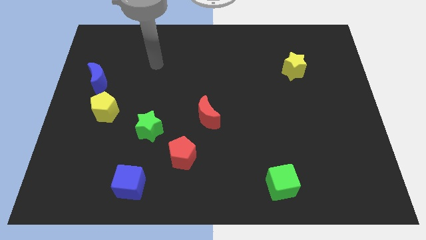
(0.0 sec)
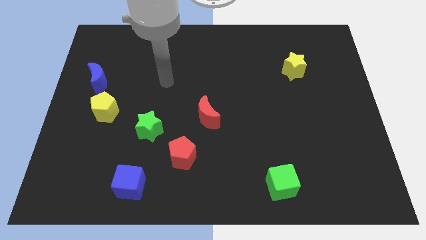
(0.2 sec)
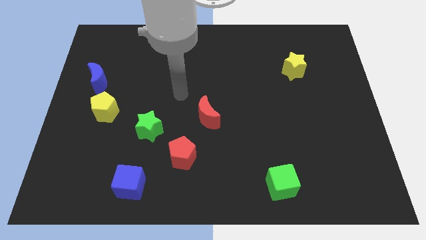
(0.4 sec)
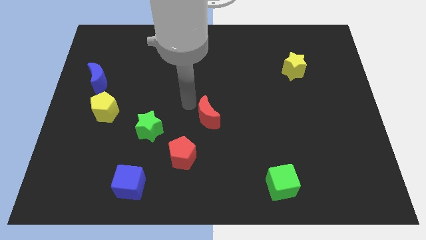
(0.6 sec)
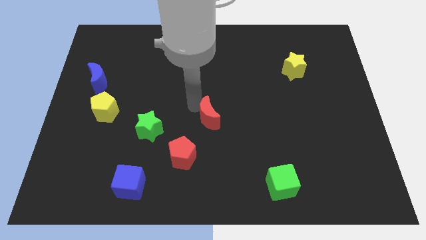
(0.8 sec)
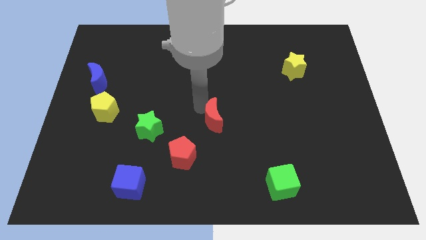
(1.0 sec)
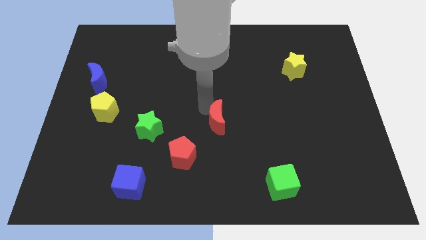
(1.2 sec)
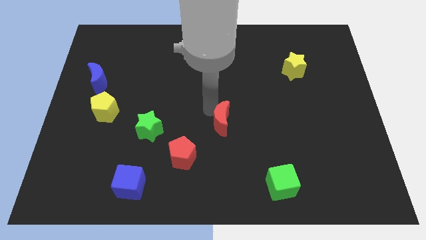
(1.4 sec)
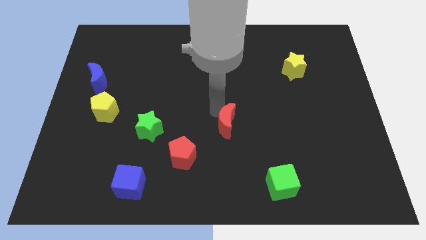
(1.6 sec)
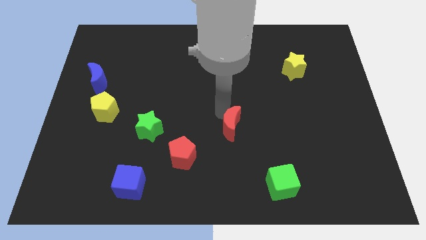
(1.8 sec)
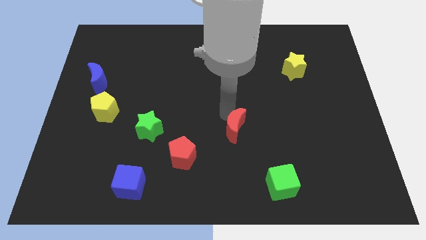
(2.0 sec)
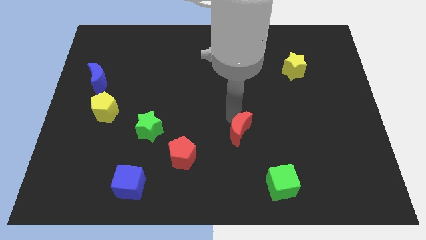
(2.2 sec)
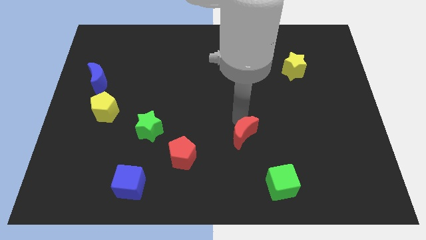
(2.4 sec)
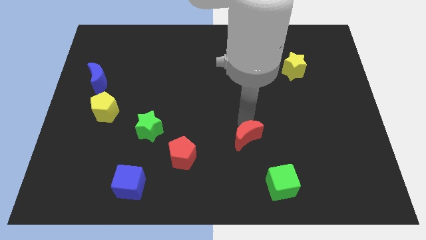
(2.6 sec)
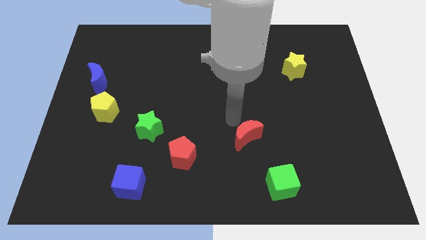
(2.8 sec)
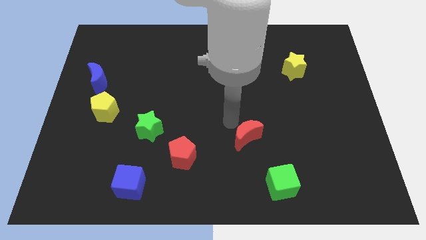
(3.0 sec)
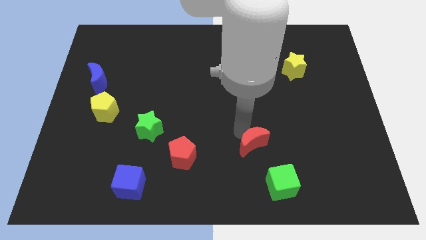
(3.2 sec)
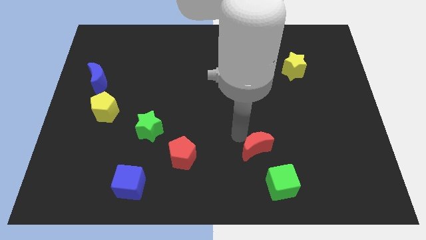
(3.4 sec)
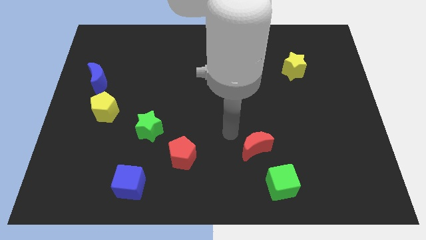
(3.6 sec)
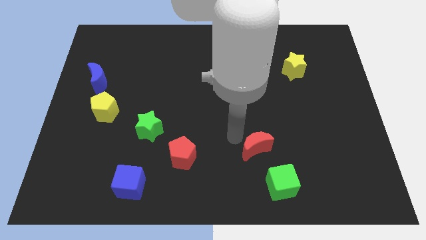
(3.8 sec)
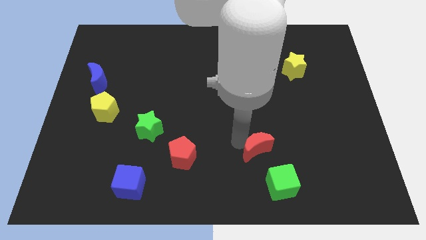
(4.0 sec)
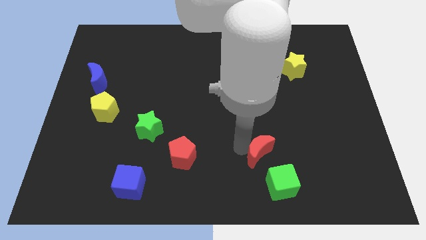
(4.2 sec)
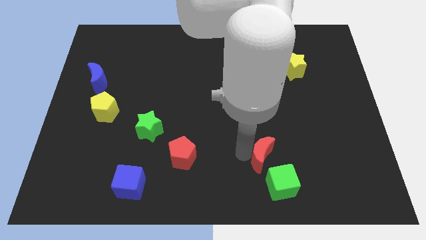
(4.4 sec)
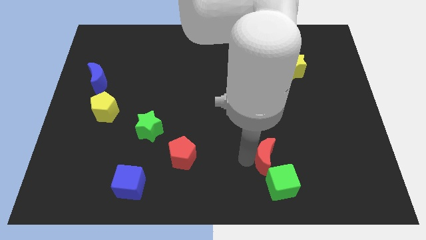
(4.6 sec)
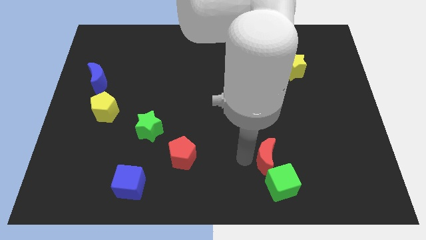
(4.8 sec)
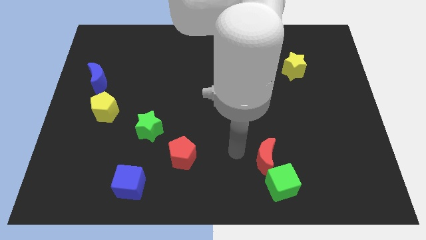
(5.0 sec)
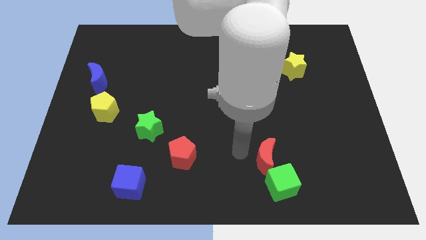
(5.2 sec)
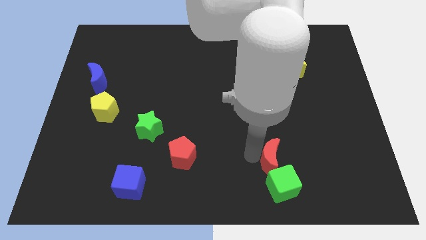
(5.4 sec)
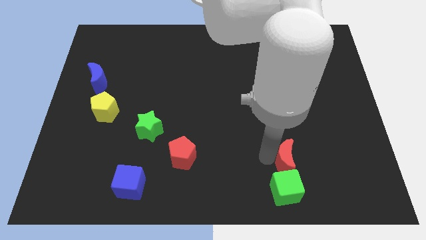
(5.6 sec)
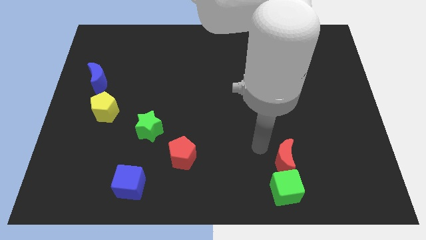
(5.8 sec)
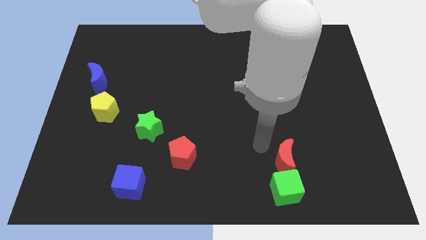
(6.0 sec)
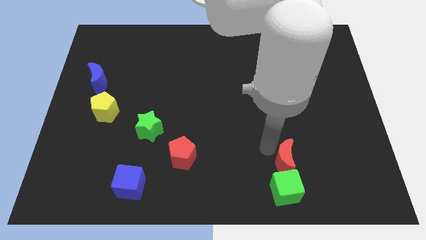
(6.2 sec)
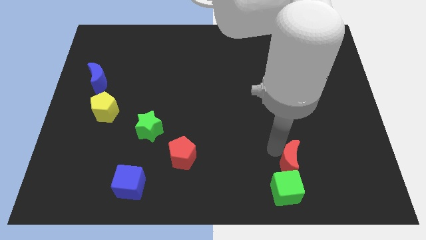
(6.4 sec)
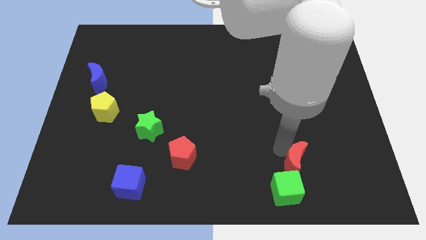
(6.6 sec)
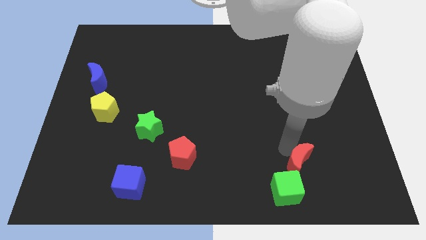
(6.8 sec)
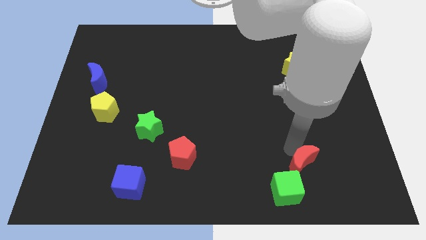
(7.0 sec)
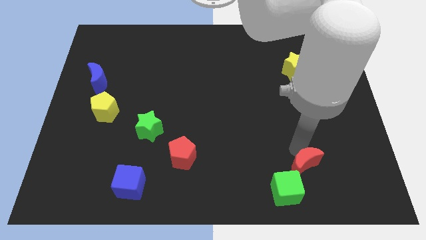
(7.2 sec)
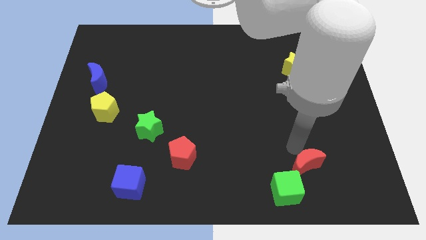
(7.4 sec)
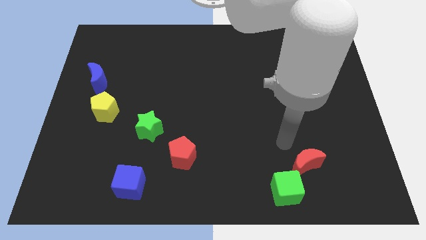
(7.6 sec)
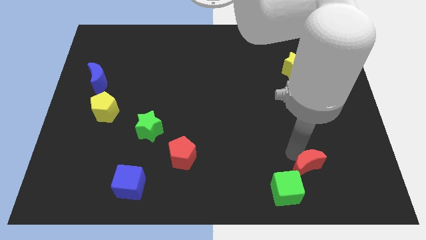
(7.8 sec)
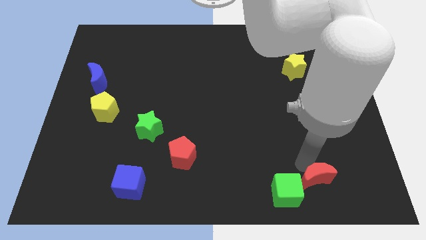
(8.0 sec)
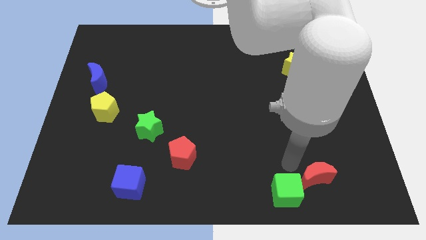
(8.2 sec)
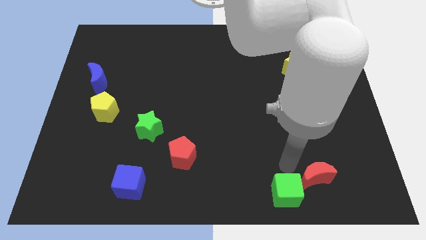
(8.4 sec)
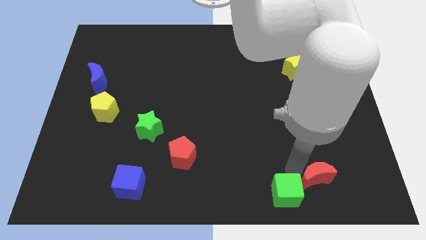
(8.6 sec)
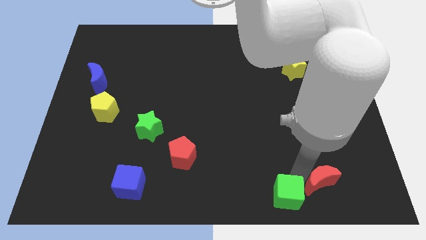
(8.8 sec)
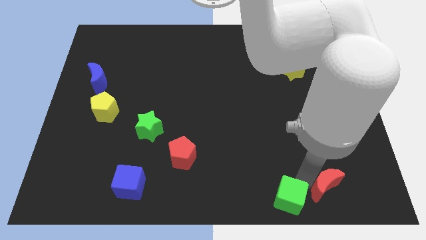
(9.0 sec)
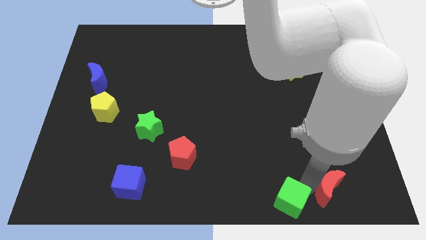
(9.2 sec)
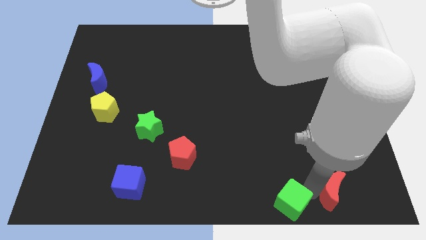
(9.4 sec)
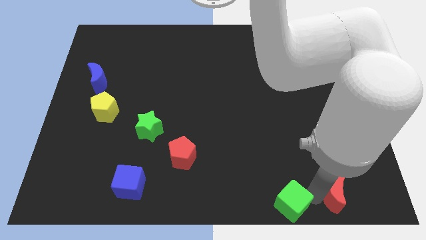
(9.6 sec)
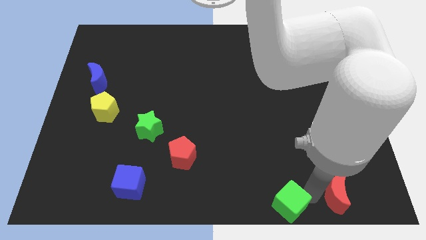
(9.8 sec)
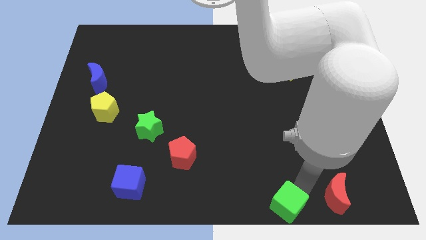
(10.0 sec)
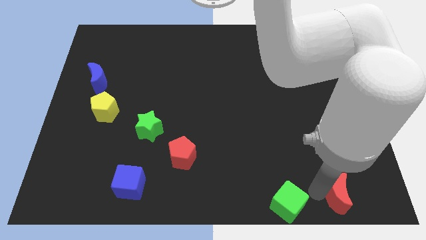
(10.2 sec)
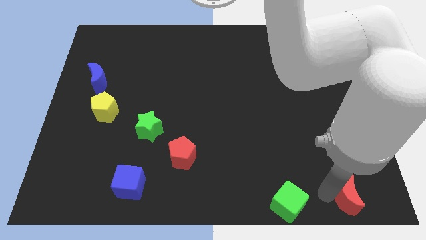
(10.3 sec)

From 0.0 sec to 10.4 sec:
push the red moon to the bottom right
